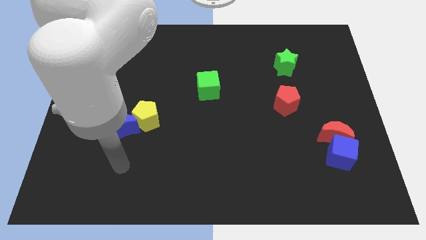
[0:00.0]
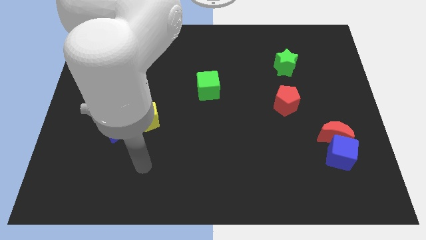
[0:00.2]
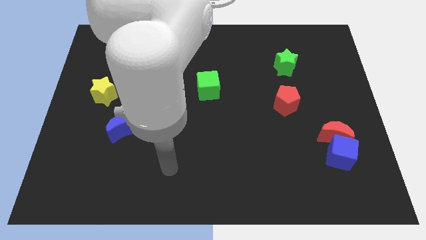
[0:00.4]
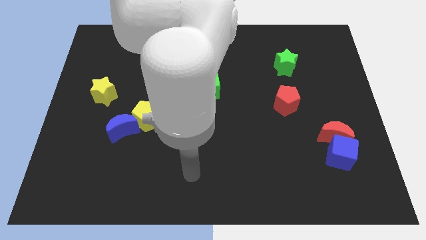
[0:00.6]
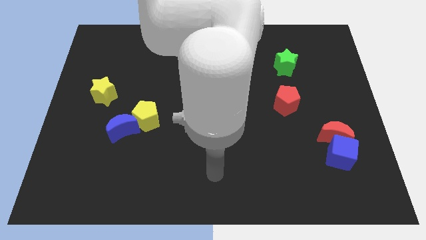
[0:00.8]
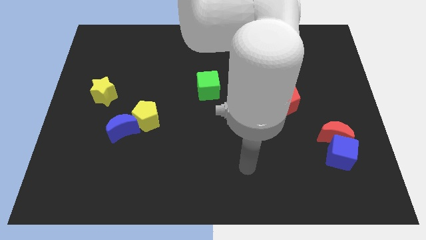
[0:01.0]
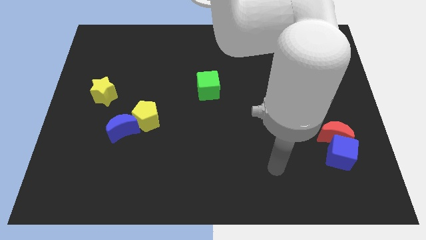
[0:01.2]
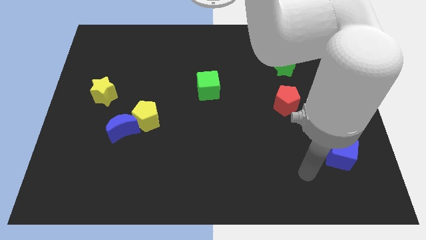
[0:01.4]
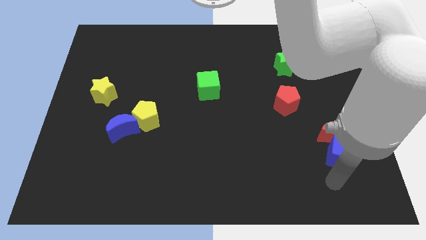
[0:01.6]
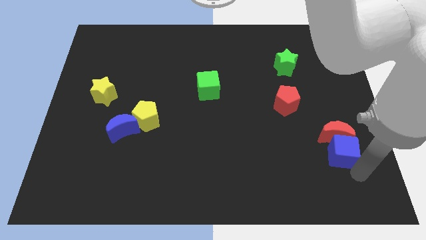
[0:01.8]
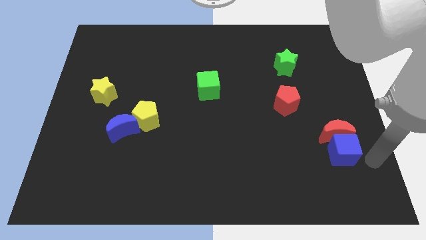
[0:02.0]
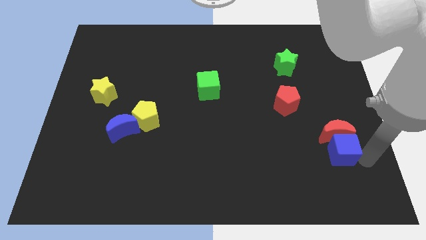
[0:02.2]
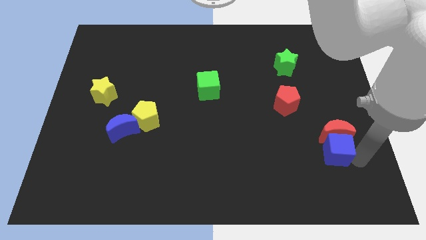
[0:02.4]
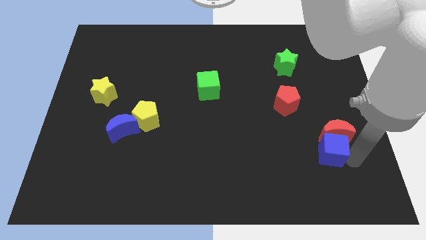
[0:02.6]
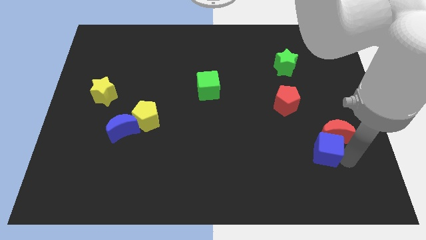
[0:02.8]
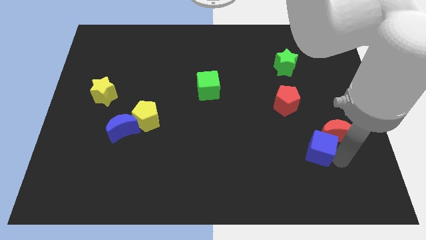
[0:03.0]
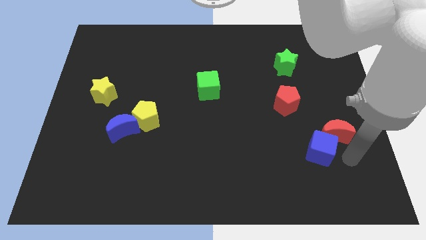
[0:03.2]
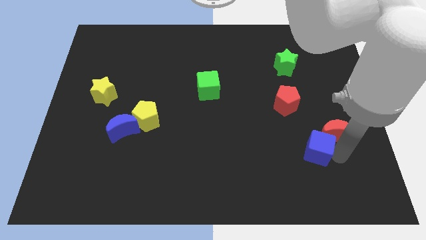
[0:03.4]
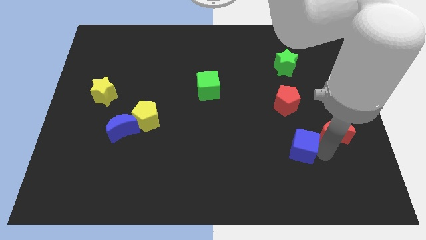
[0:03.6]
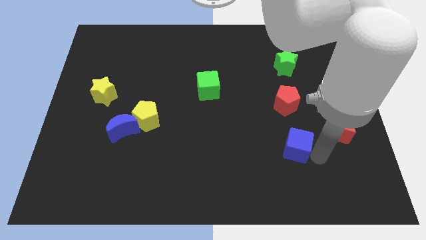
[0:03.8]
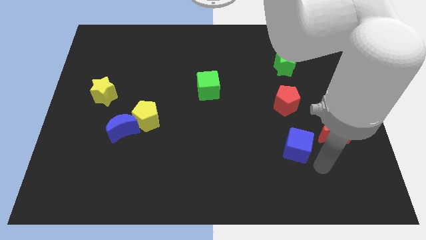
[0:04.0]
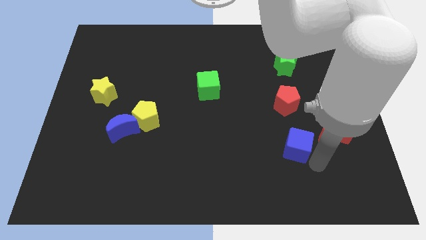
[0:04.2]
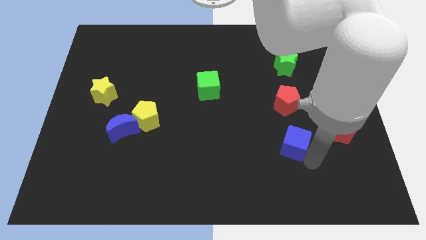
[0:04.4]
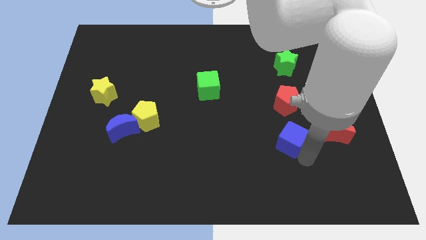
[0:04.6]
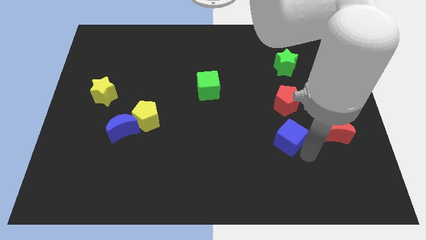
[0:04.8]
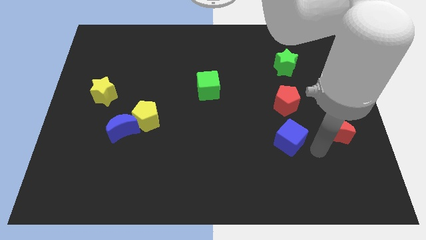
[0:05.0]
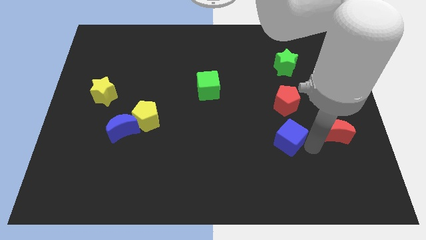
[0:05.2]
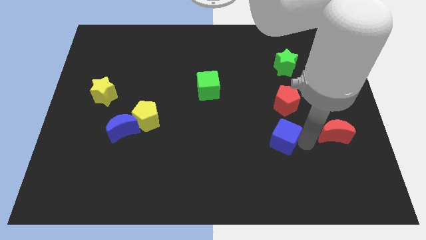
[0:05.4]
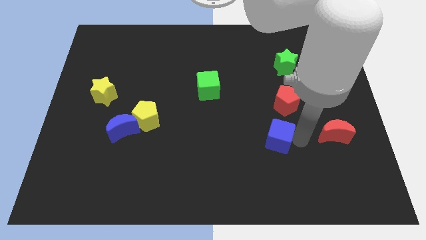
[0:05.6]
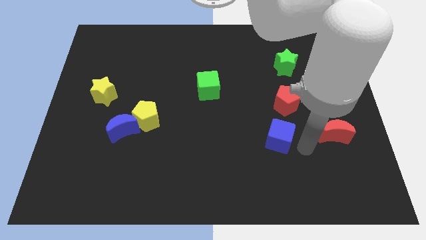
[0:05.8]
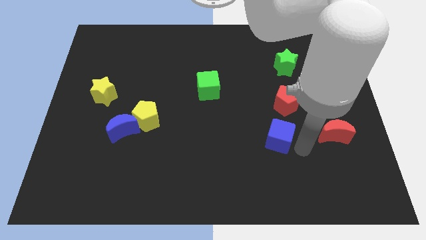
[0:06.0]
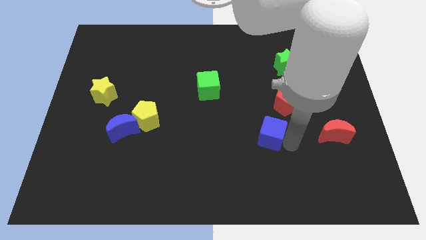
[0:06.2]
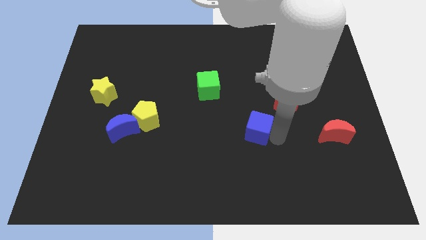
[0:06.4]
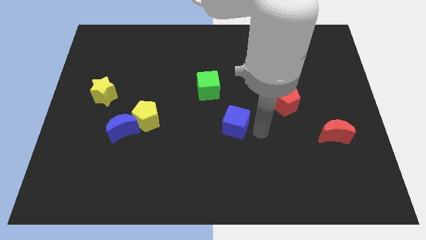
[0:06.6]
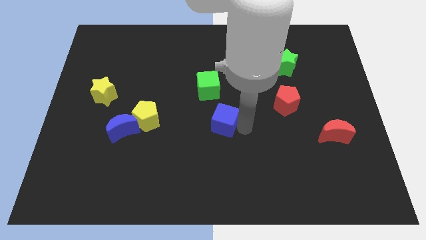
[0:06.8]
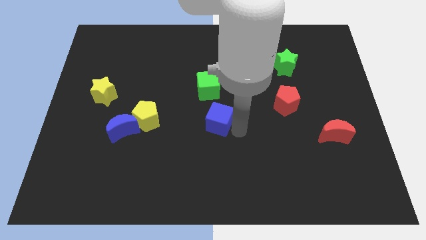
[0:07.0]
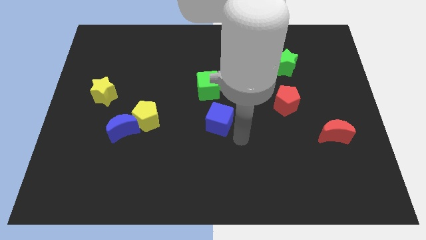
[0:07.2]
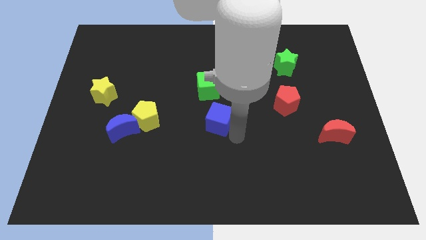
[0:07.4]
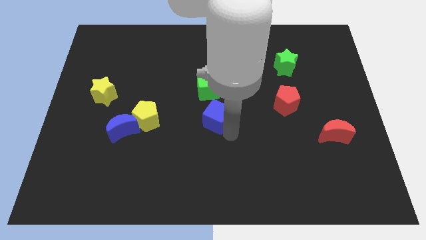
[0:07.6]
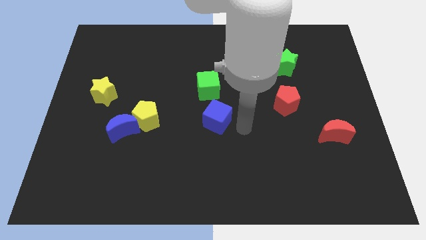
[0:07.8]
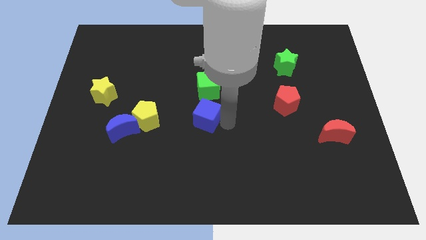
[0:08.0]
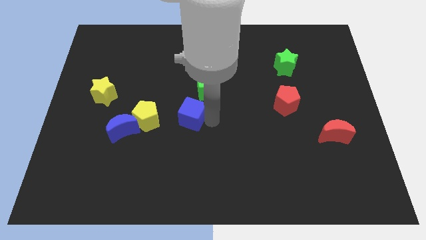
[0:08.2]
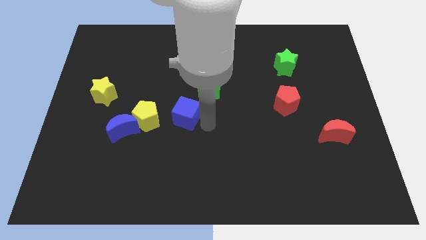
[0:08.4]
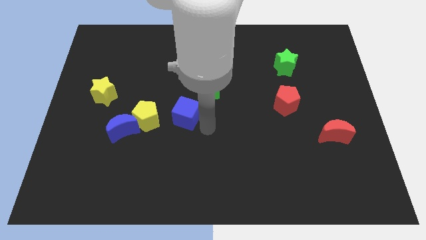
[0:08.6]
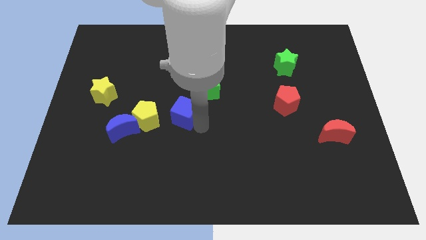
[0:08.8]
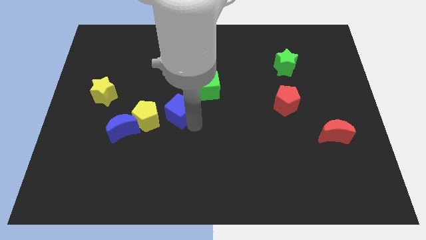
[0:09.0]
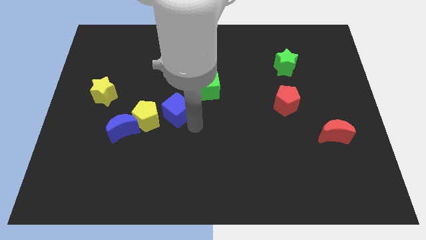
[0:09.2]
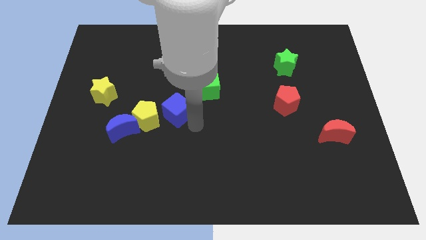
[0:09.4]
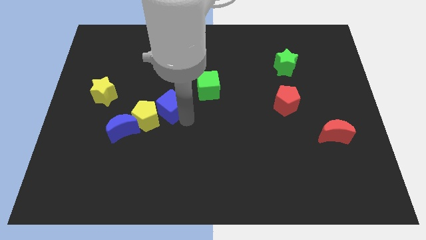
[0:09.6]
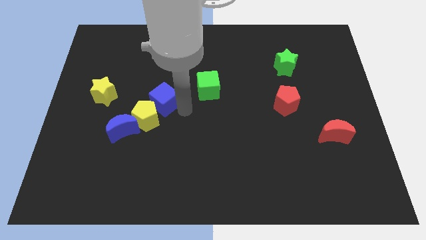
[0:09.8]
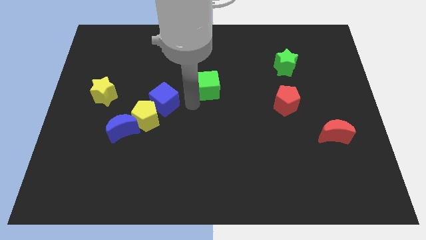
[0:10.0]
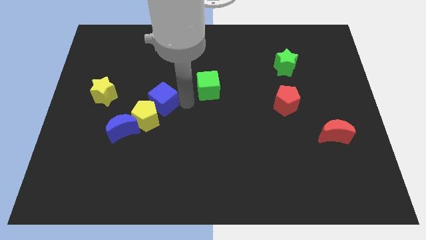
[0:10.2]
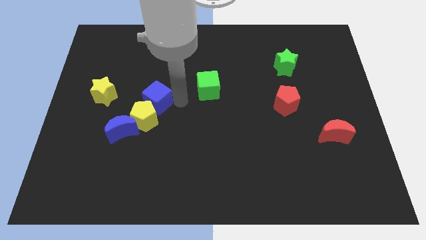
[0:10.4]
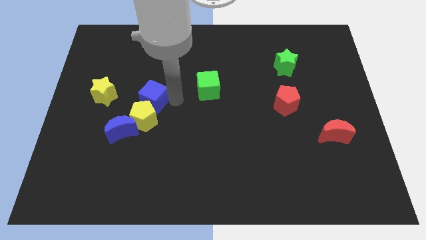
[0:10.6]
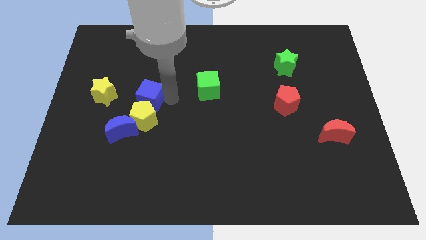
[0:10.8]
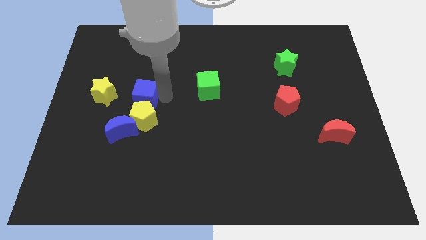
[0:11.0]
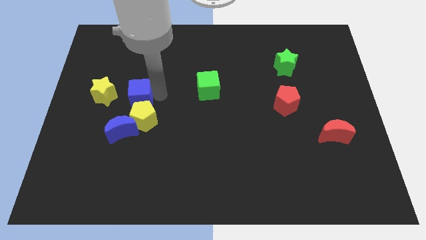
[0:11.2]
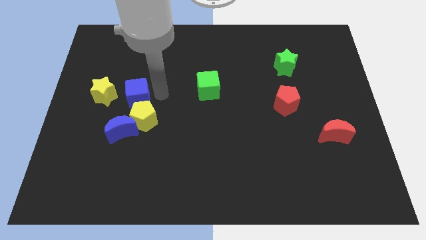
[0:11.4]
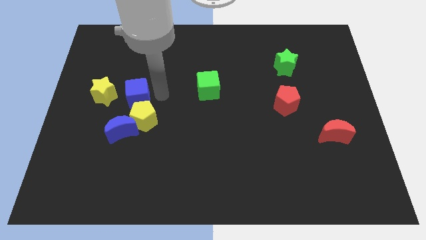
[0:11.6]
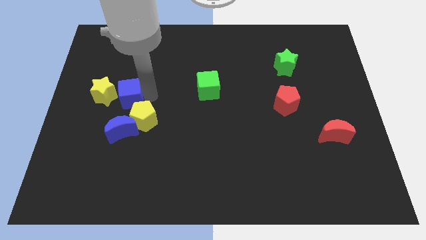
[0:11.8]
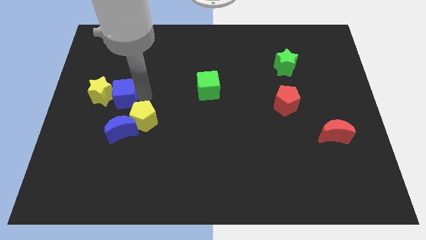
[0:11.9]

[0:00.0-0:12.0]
move the blue cube to the yellow star

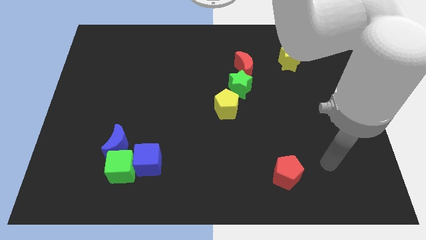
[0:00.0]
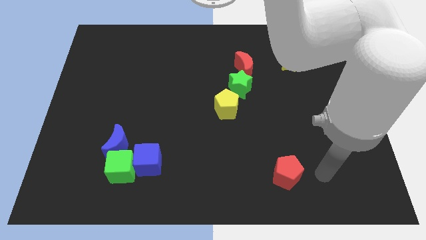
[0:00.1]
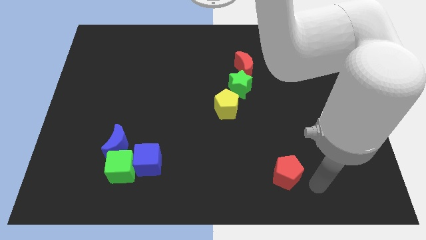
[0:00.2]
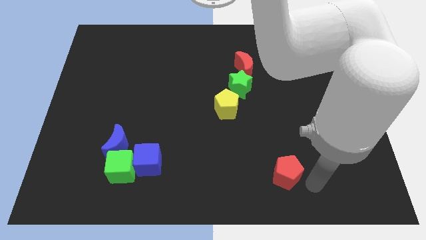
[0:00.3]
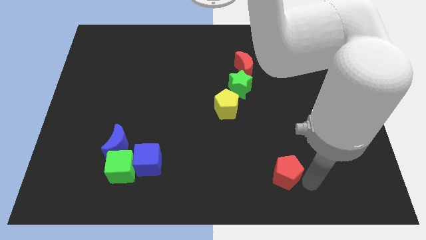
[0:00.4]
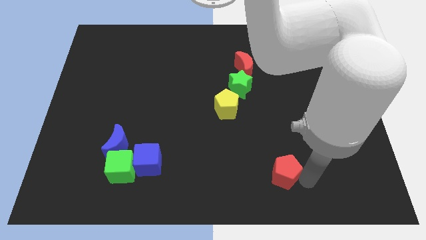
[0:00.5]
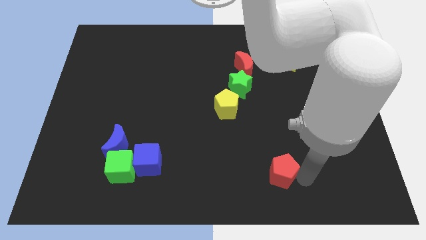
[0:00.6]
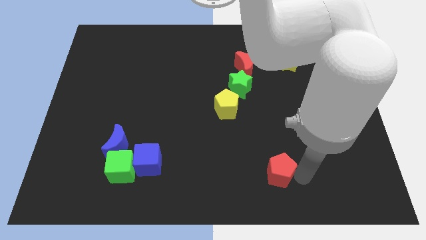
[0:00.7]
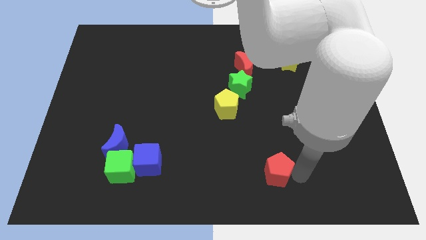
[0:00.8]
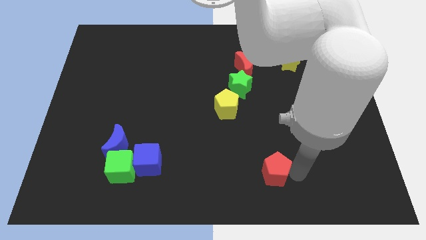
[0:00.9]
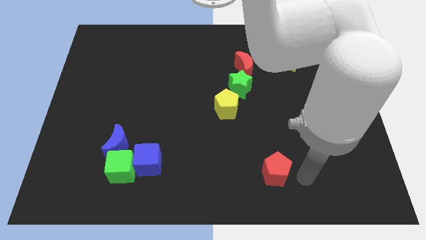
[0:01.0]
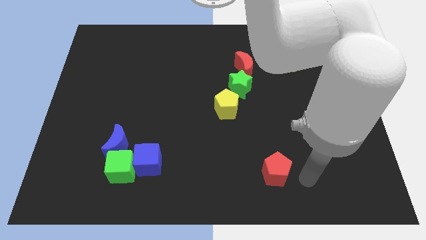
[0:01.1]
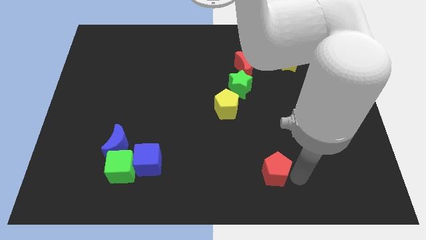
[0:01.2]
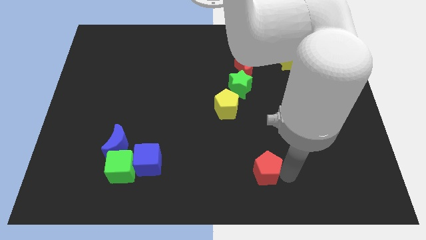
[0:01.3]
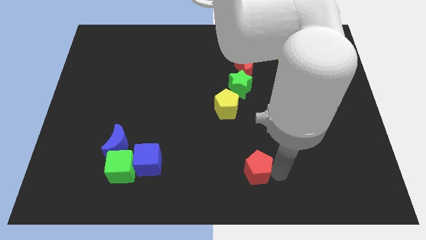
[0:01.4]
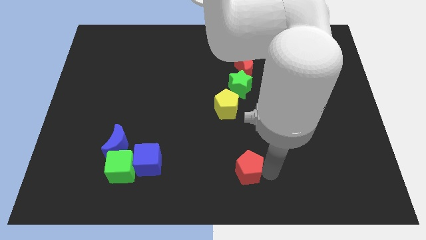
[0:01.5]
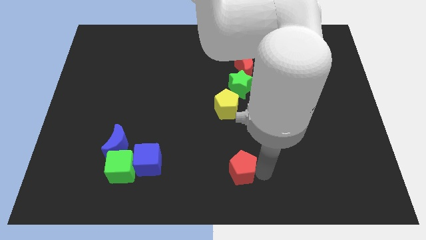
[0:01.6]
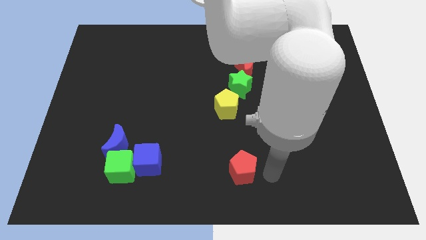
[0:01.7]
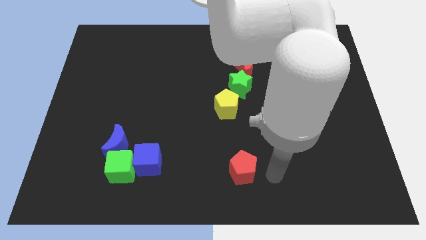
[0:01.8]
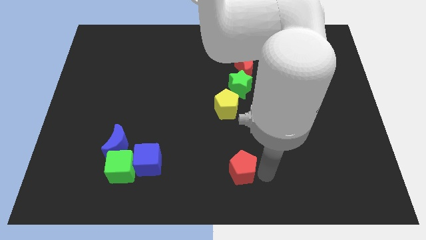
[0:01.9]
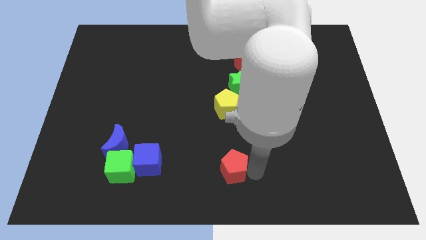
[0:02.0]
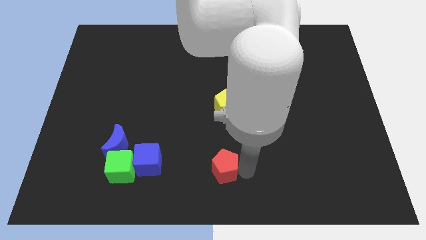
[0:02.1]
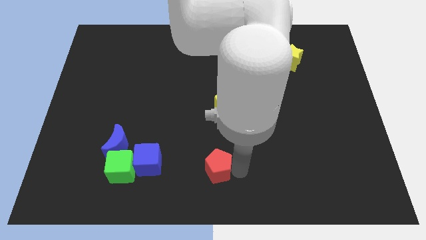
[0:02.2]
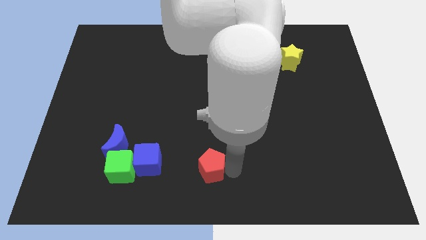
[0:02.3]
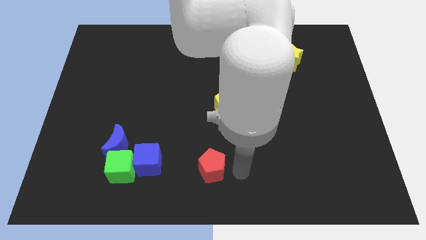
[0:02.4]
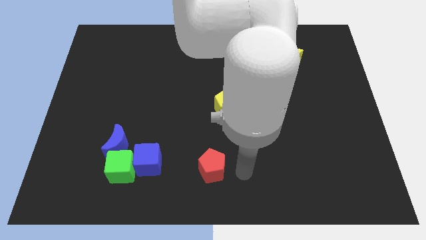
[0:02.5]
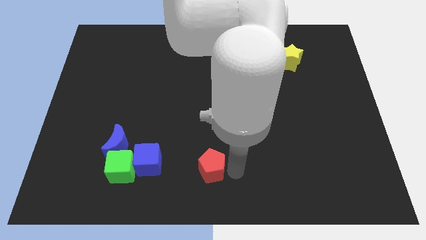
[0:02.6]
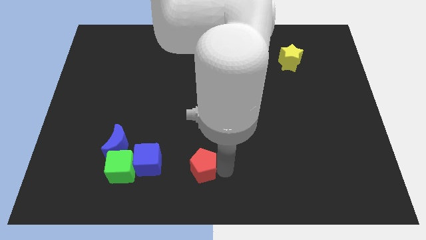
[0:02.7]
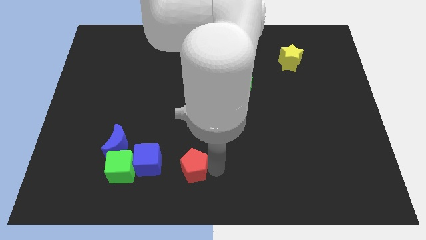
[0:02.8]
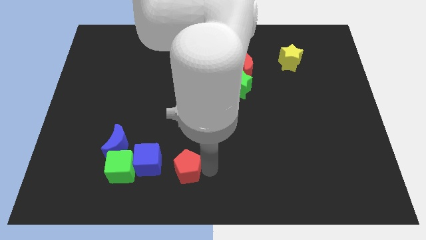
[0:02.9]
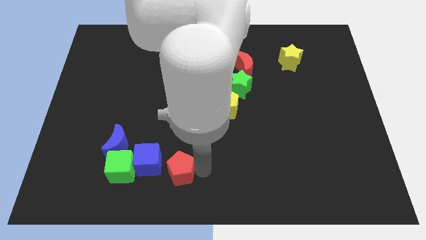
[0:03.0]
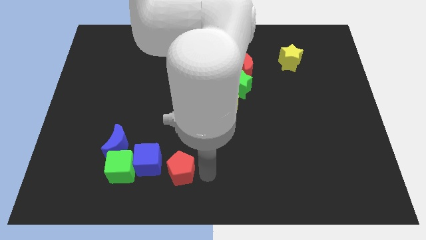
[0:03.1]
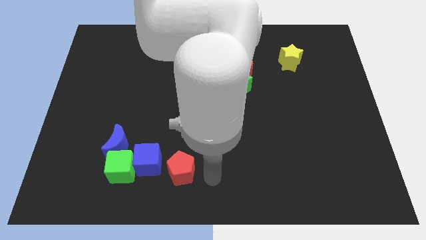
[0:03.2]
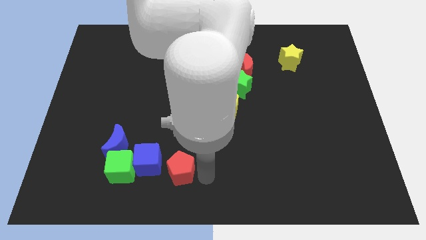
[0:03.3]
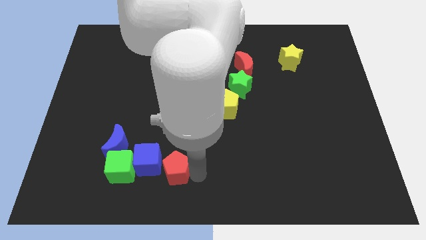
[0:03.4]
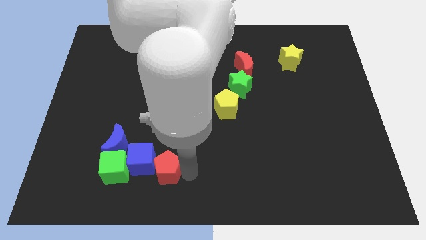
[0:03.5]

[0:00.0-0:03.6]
slide the red pentagon close to the blue cube
